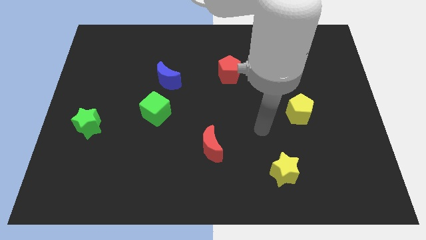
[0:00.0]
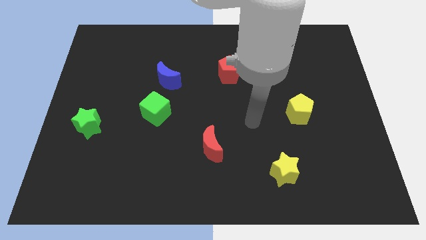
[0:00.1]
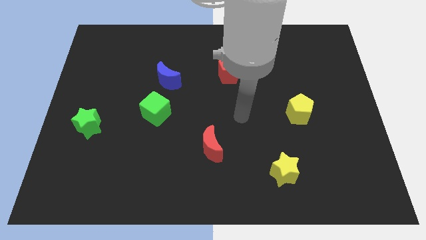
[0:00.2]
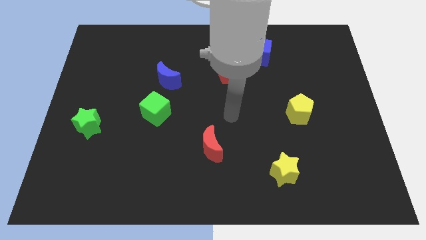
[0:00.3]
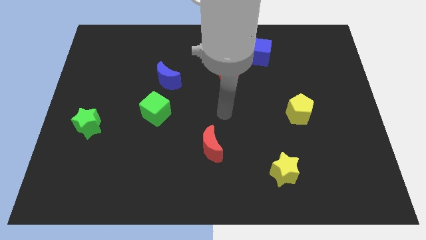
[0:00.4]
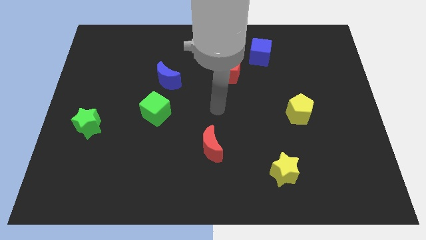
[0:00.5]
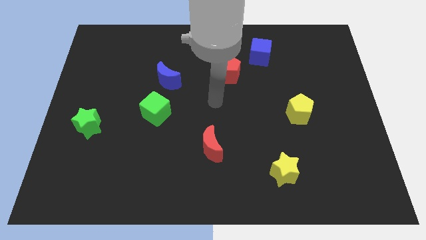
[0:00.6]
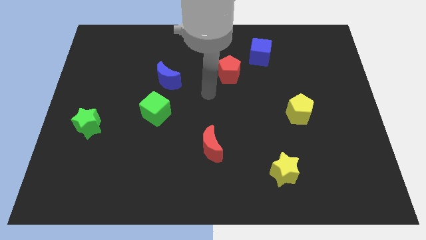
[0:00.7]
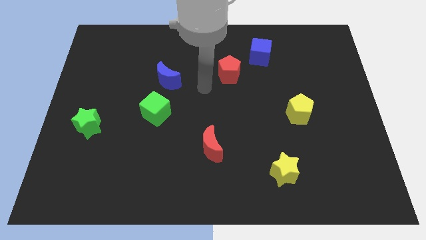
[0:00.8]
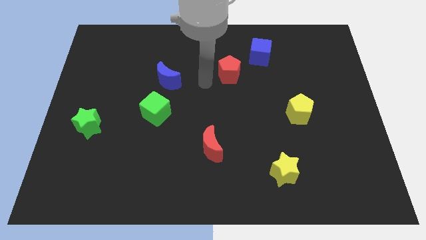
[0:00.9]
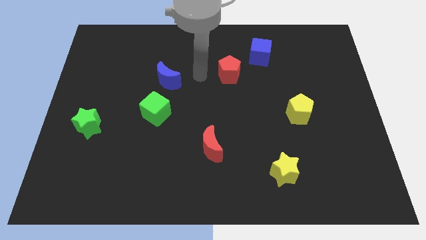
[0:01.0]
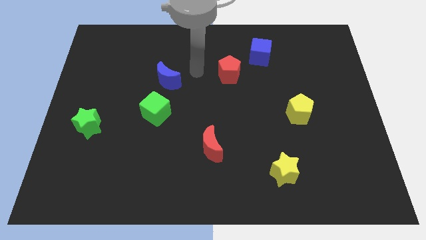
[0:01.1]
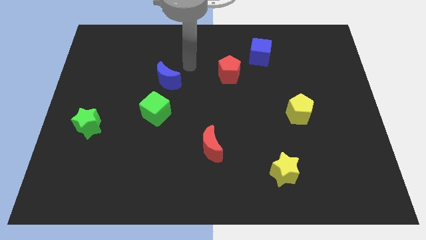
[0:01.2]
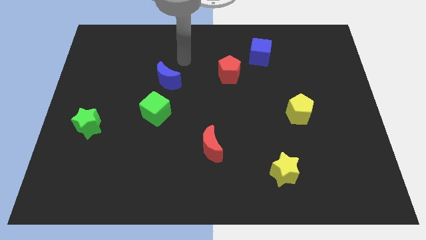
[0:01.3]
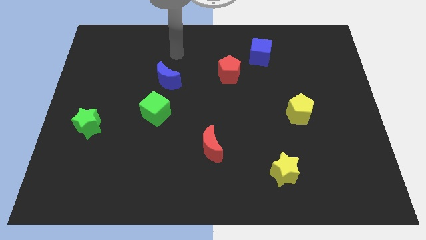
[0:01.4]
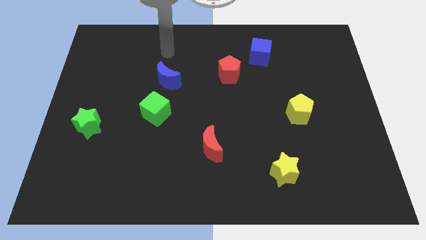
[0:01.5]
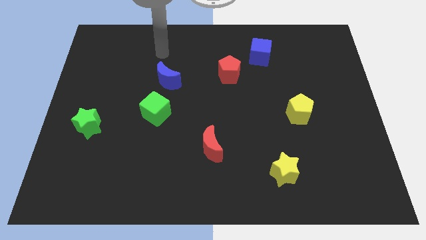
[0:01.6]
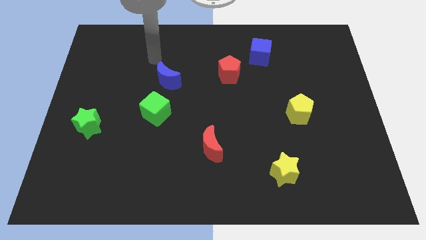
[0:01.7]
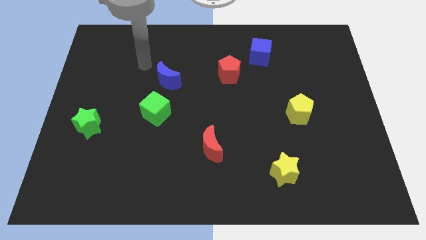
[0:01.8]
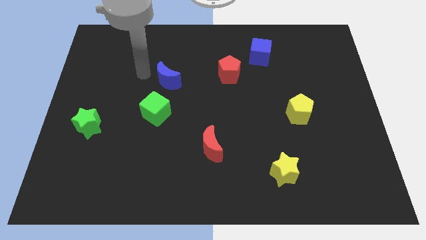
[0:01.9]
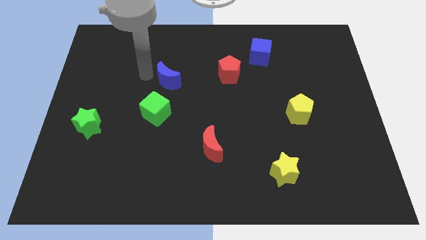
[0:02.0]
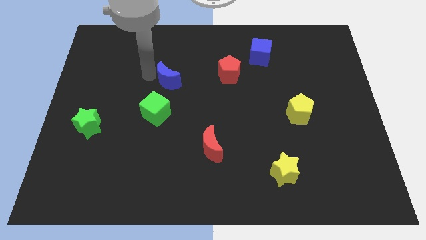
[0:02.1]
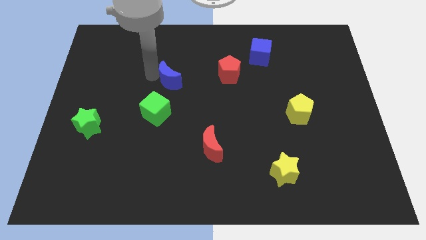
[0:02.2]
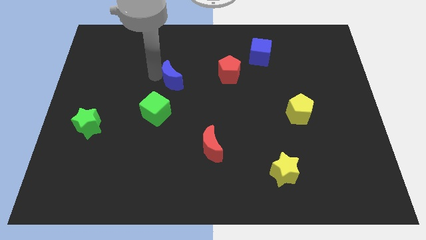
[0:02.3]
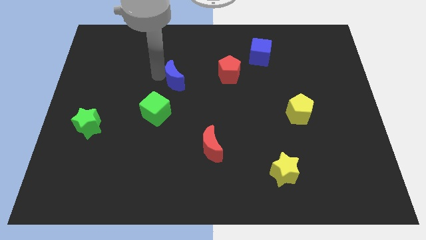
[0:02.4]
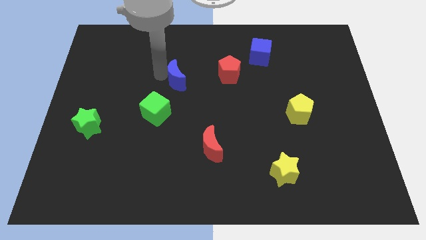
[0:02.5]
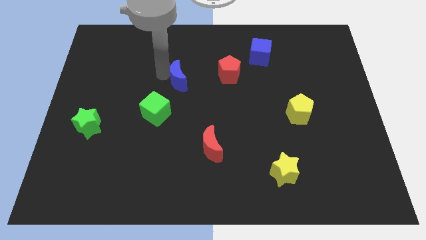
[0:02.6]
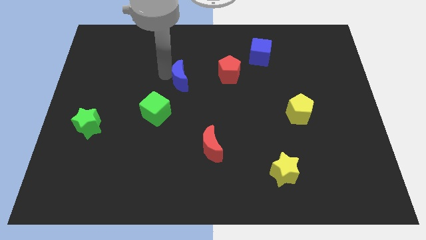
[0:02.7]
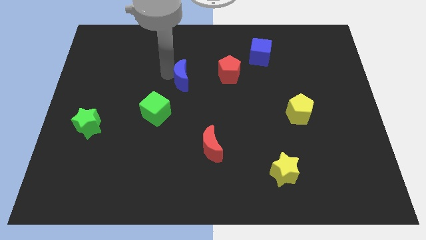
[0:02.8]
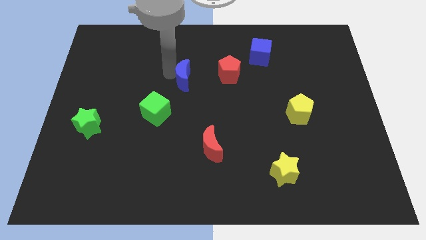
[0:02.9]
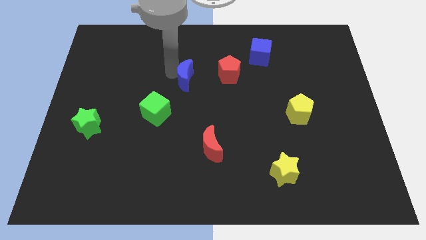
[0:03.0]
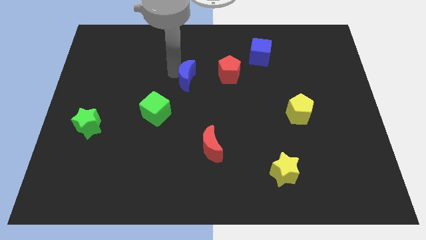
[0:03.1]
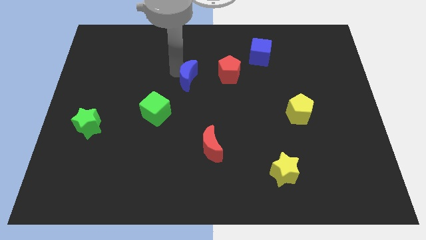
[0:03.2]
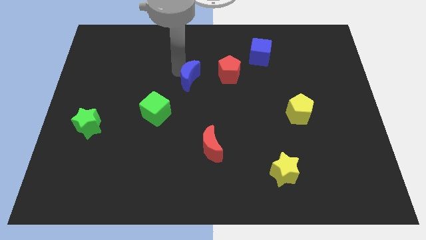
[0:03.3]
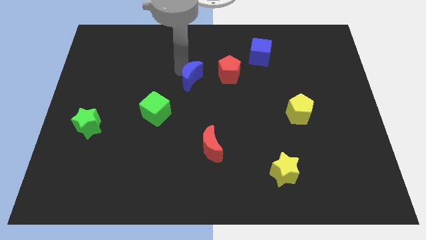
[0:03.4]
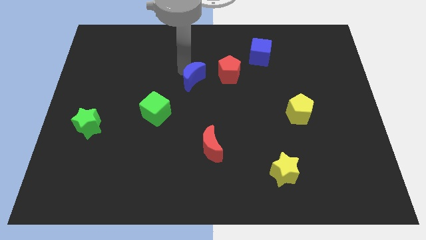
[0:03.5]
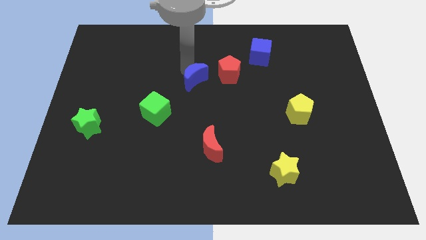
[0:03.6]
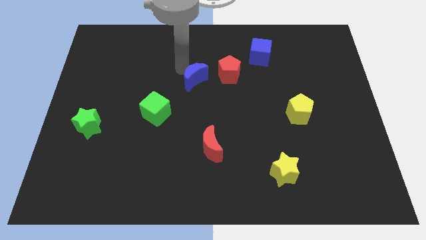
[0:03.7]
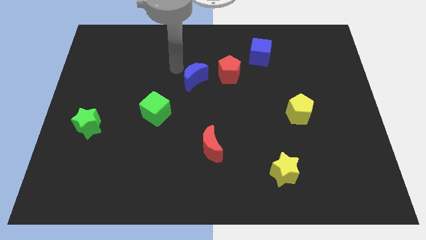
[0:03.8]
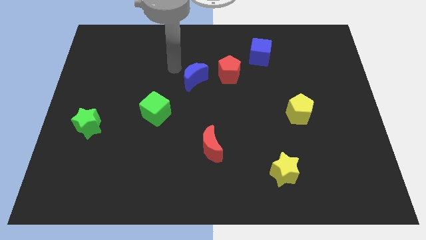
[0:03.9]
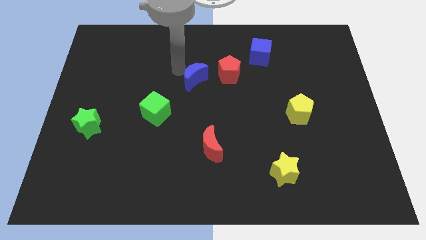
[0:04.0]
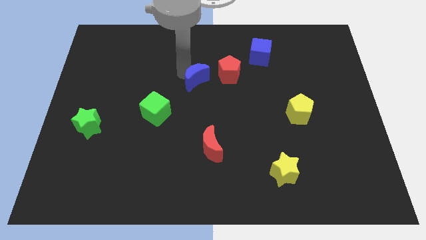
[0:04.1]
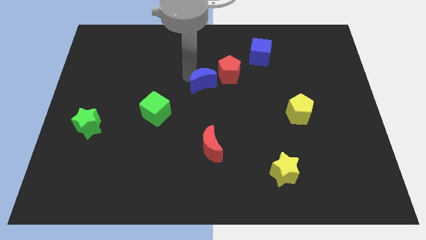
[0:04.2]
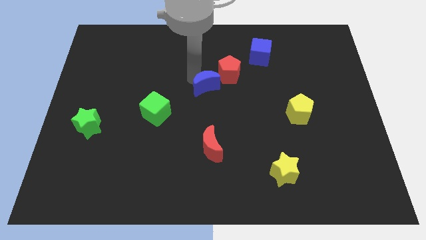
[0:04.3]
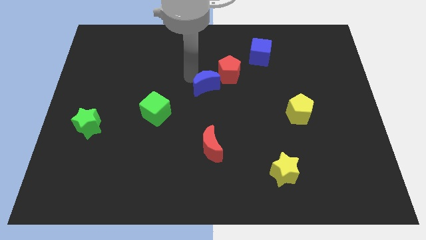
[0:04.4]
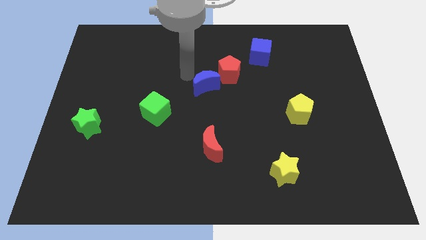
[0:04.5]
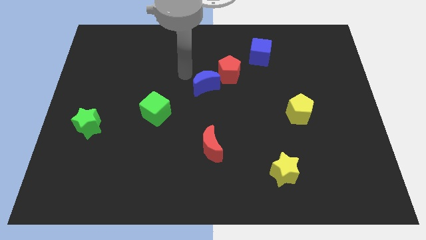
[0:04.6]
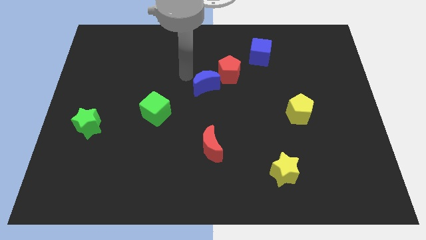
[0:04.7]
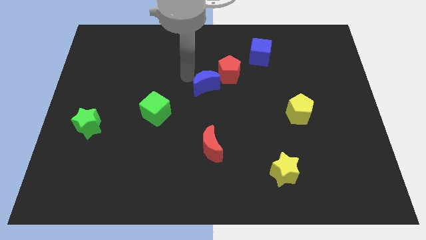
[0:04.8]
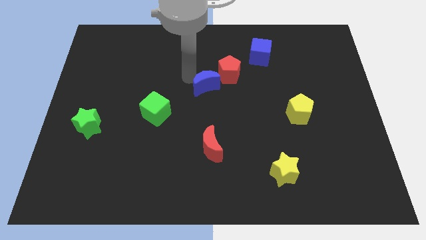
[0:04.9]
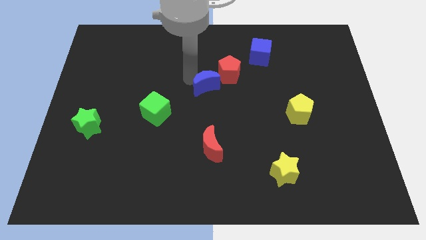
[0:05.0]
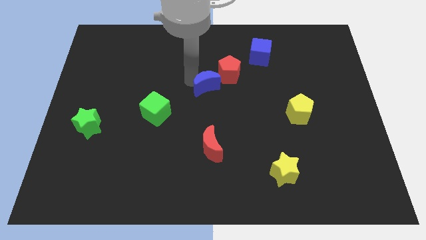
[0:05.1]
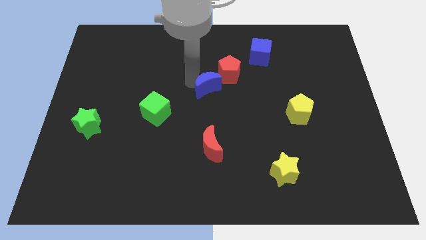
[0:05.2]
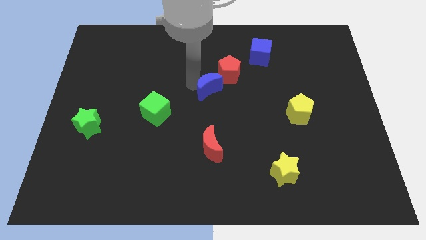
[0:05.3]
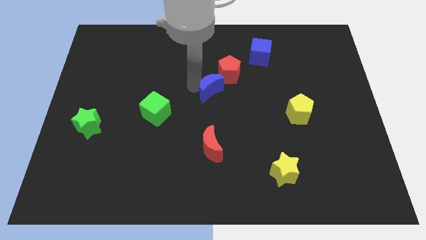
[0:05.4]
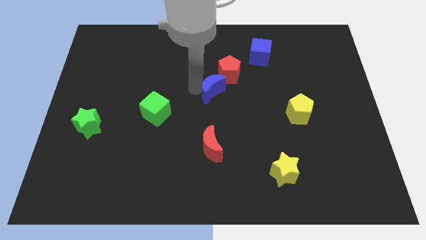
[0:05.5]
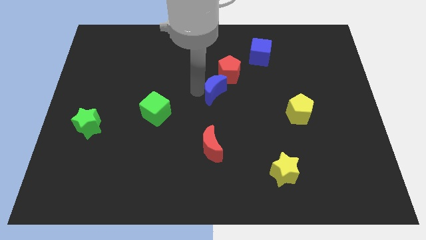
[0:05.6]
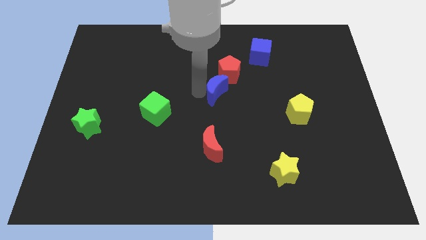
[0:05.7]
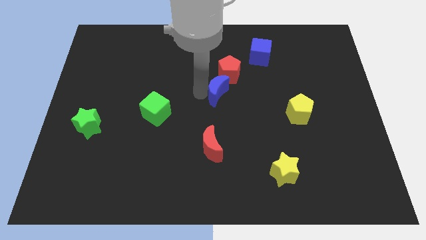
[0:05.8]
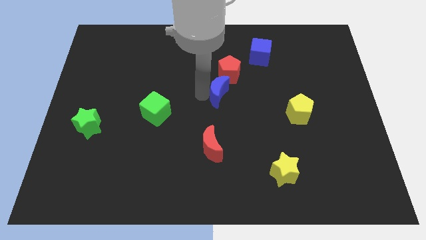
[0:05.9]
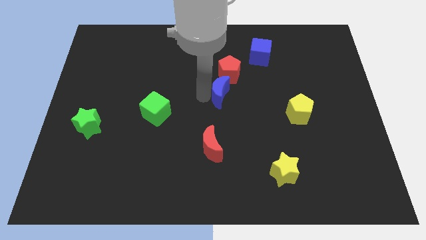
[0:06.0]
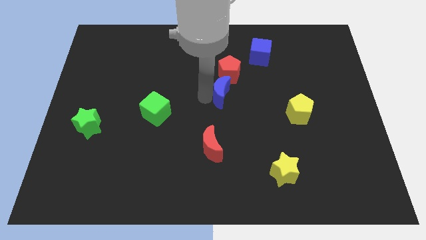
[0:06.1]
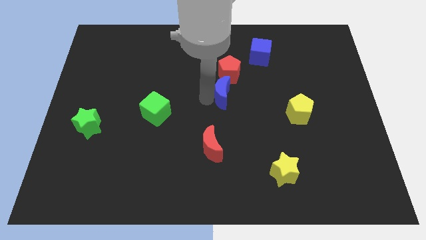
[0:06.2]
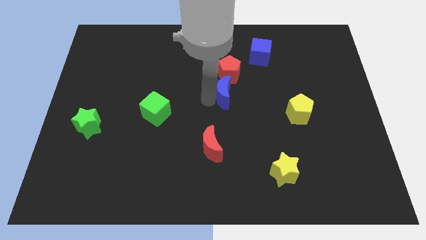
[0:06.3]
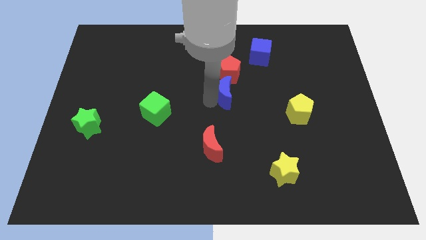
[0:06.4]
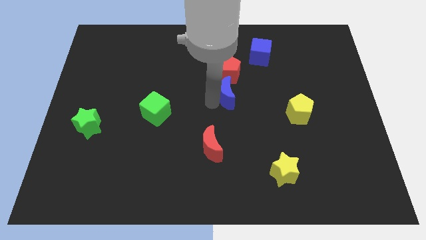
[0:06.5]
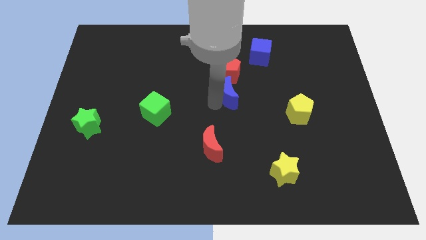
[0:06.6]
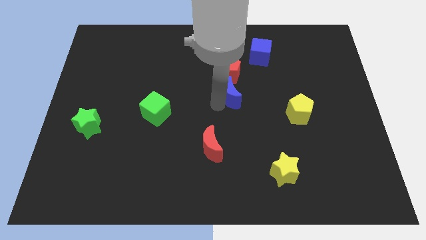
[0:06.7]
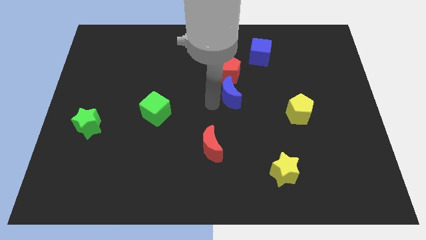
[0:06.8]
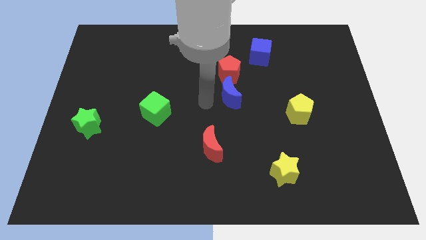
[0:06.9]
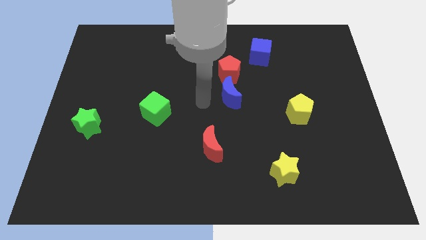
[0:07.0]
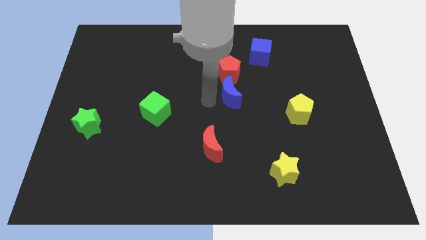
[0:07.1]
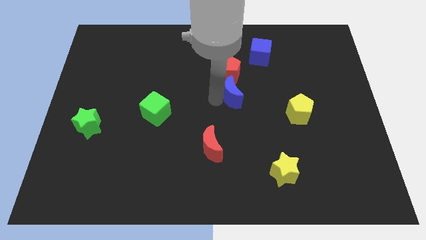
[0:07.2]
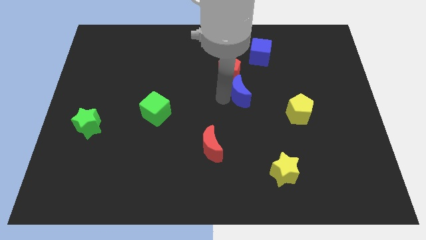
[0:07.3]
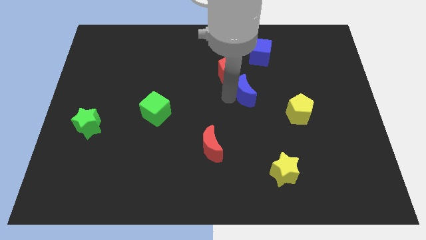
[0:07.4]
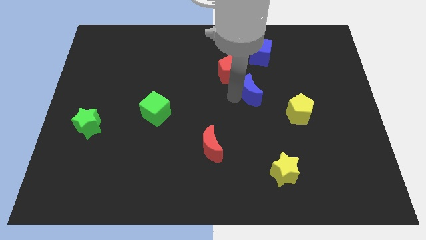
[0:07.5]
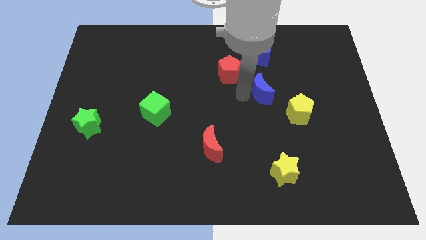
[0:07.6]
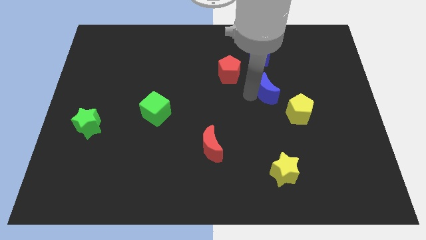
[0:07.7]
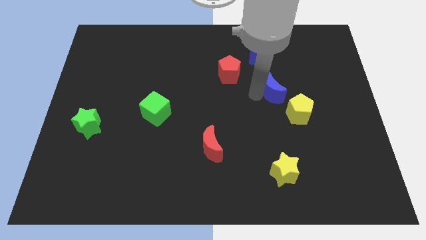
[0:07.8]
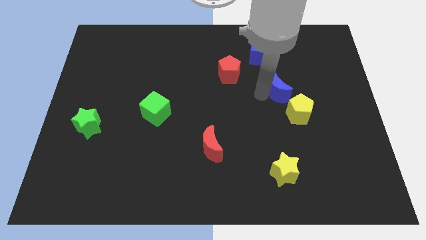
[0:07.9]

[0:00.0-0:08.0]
slide the blue moon above the yellow pentagon
